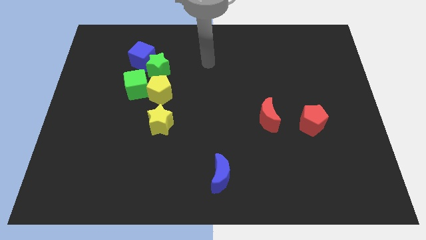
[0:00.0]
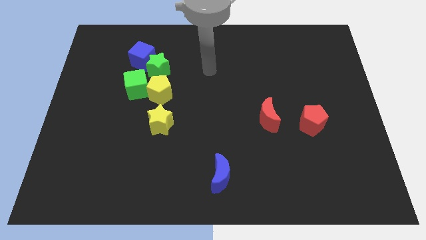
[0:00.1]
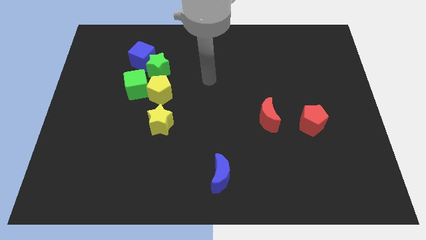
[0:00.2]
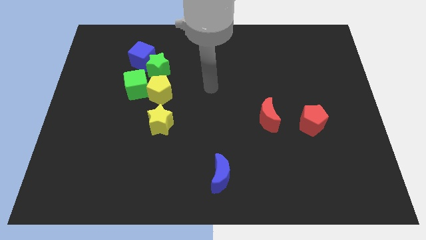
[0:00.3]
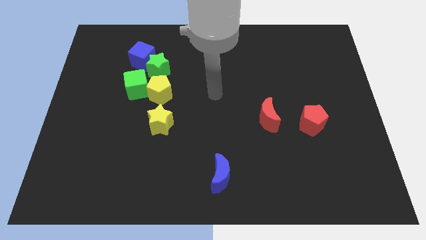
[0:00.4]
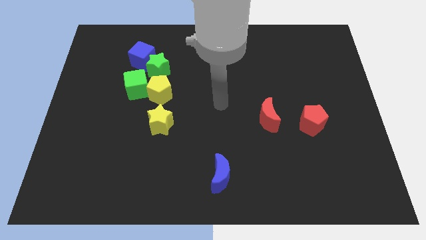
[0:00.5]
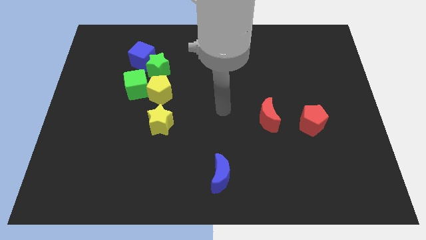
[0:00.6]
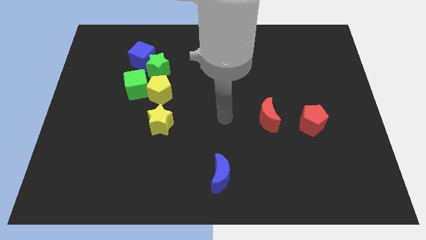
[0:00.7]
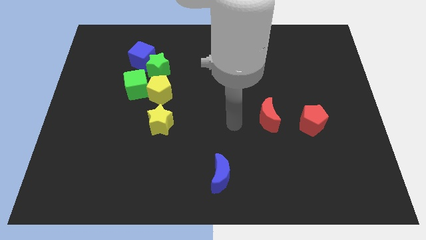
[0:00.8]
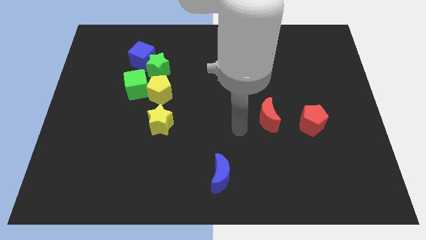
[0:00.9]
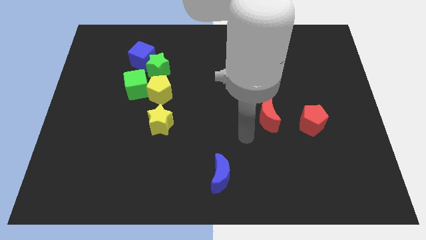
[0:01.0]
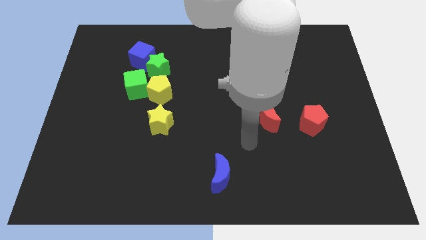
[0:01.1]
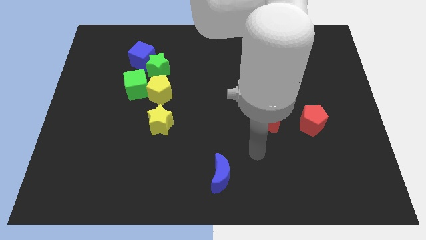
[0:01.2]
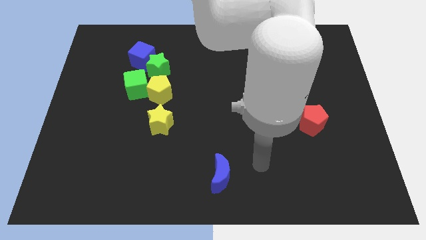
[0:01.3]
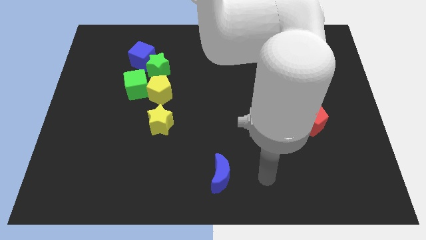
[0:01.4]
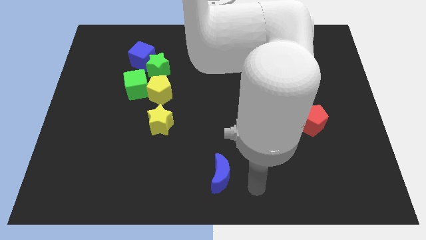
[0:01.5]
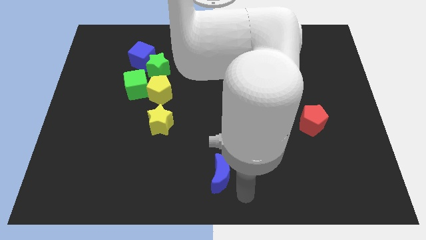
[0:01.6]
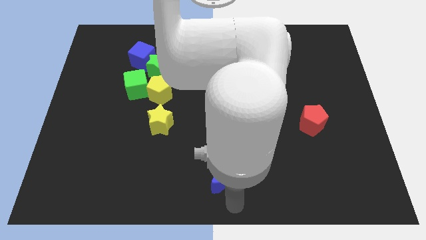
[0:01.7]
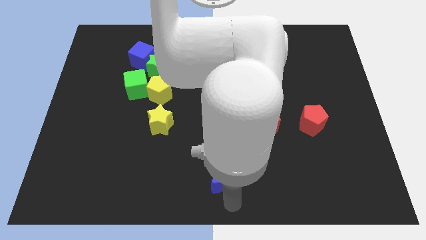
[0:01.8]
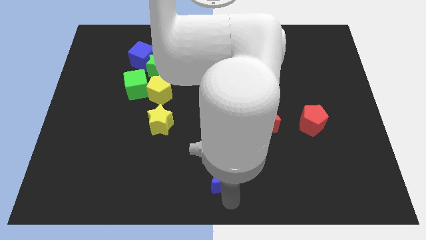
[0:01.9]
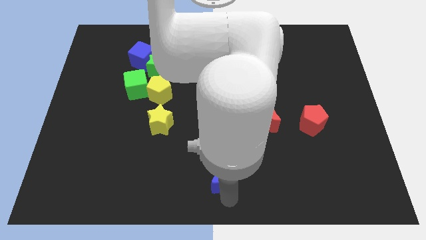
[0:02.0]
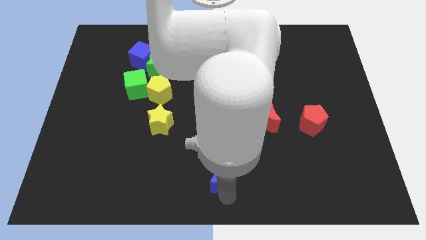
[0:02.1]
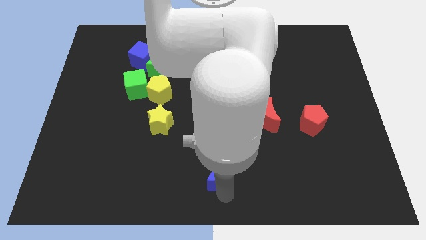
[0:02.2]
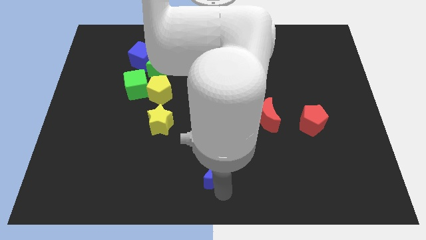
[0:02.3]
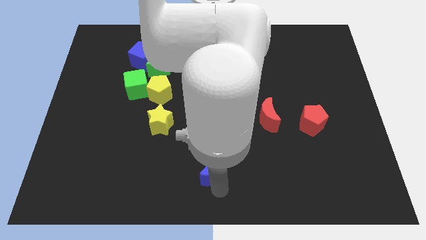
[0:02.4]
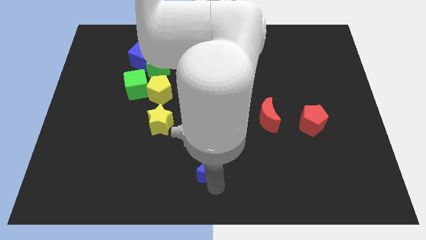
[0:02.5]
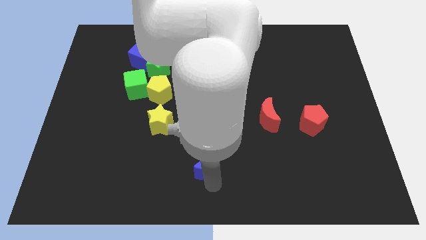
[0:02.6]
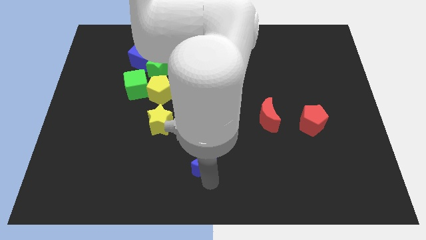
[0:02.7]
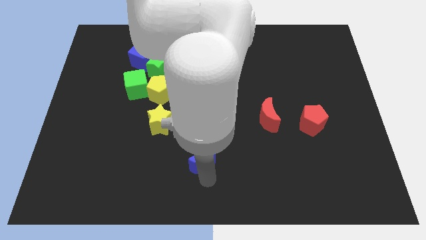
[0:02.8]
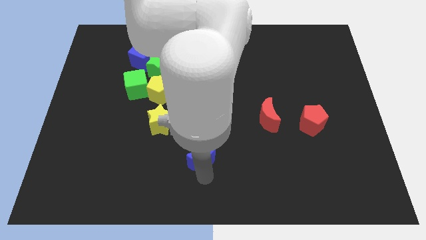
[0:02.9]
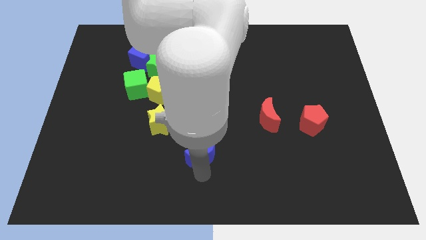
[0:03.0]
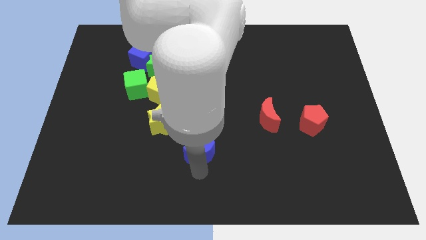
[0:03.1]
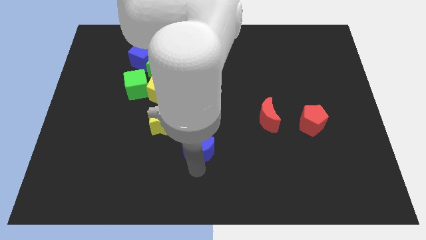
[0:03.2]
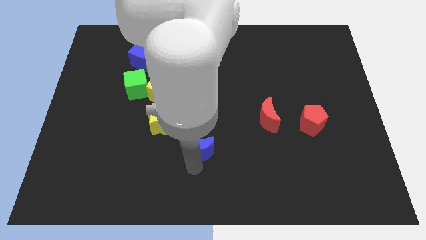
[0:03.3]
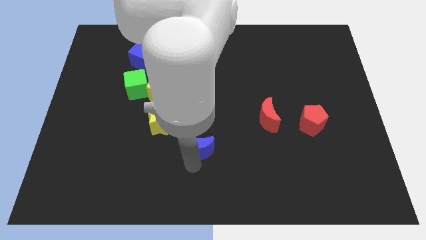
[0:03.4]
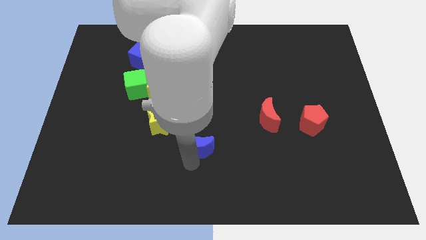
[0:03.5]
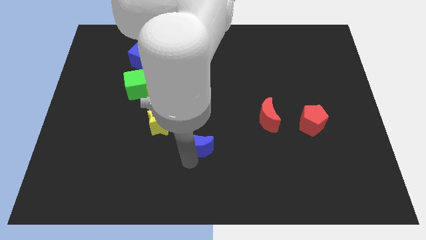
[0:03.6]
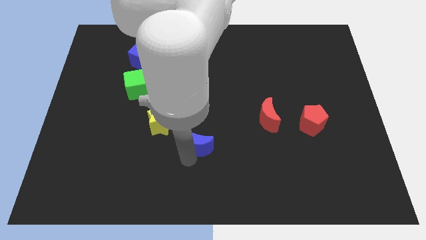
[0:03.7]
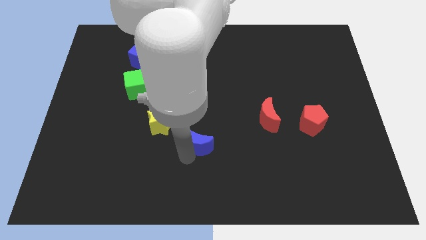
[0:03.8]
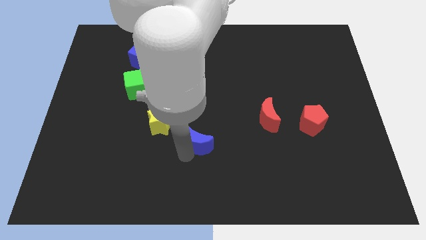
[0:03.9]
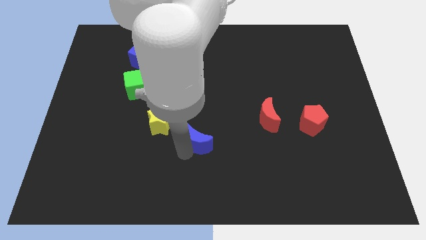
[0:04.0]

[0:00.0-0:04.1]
slide the blue moon a little up

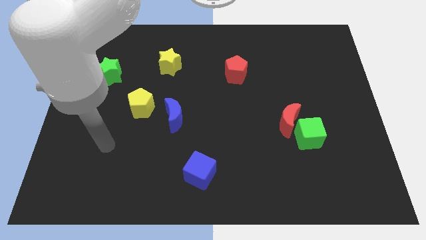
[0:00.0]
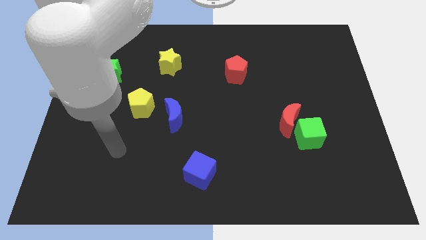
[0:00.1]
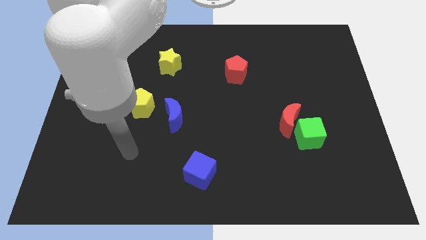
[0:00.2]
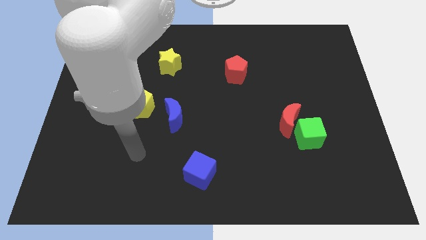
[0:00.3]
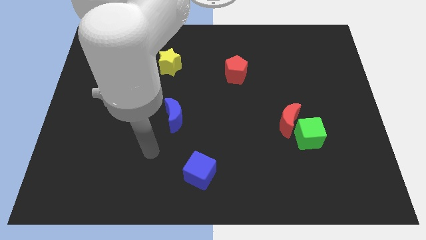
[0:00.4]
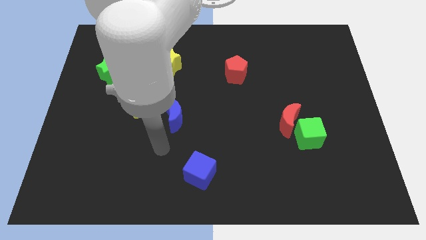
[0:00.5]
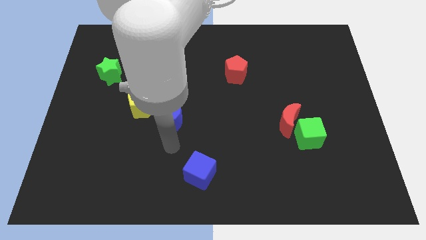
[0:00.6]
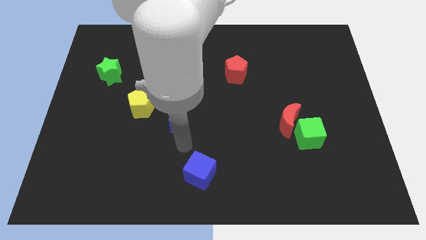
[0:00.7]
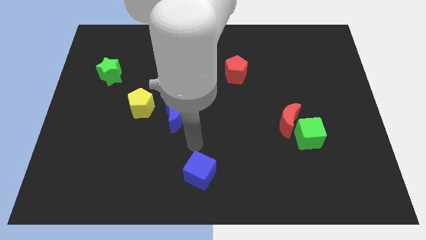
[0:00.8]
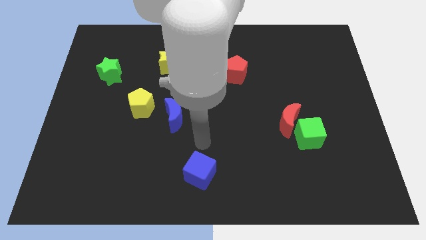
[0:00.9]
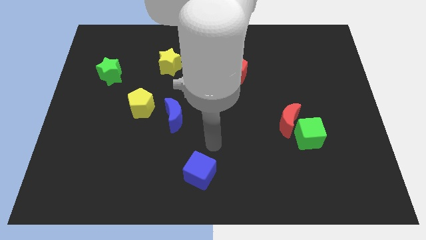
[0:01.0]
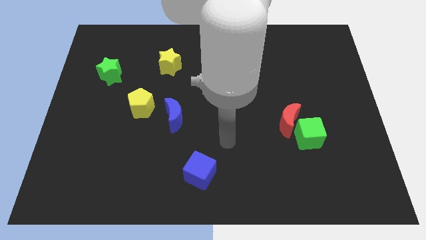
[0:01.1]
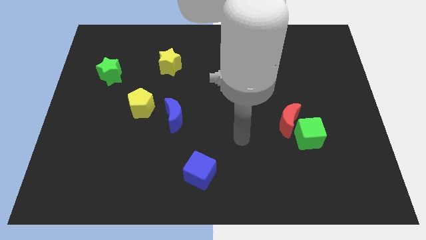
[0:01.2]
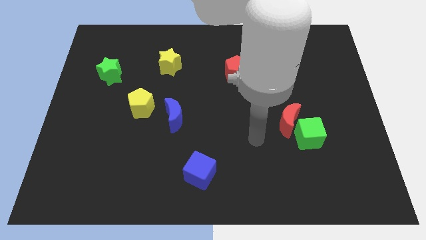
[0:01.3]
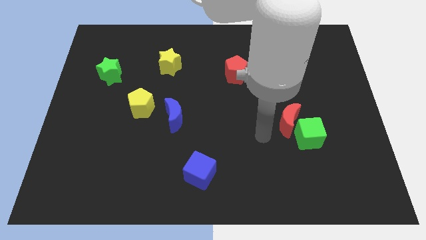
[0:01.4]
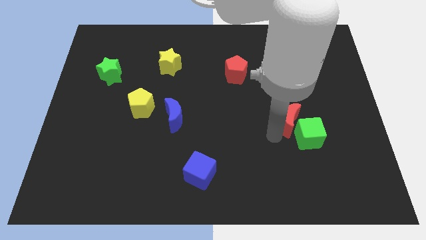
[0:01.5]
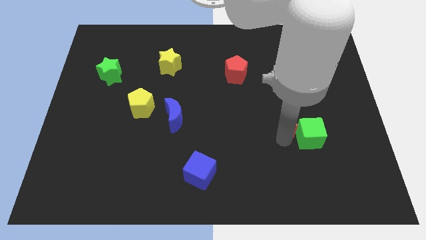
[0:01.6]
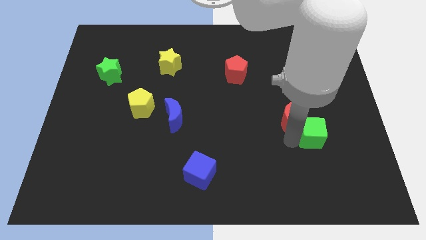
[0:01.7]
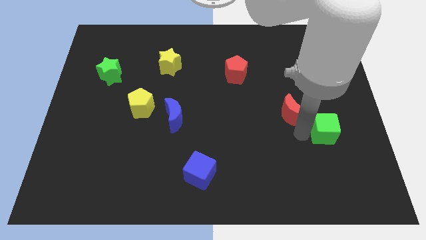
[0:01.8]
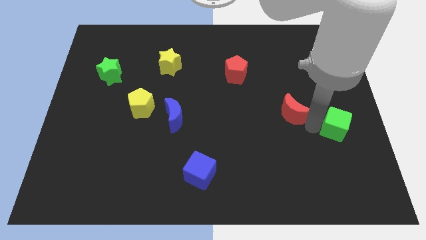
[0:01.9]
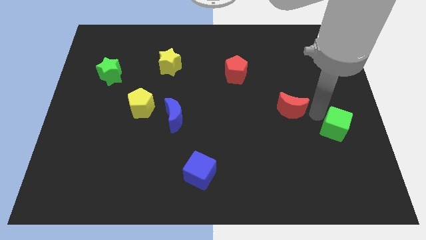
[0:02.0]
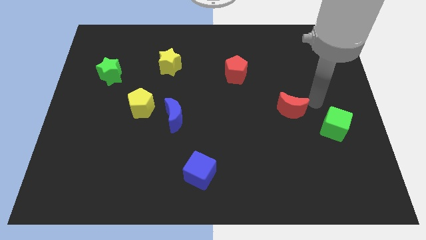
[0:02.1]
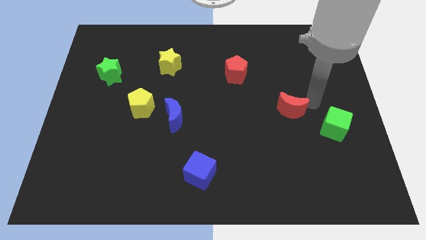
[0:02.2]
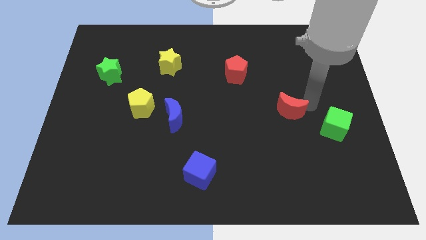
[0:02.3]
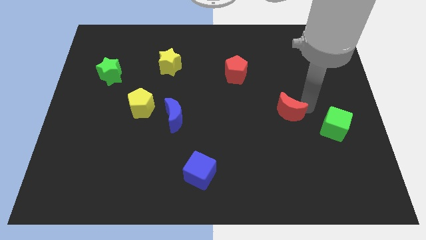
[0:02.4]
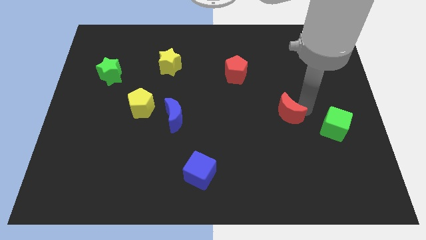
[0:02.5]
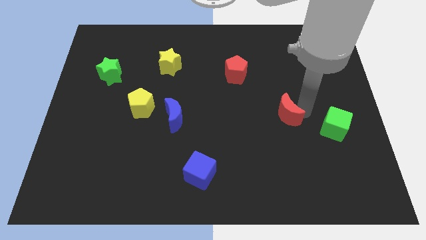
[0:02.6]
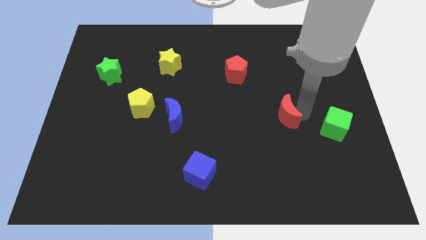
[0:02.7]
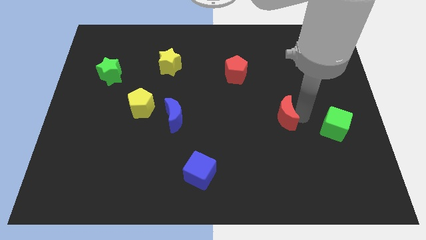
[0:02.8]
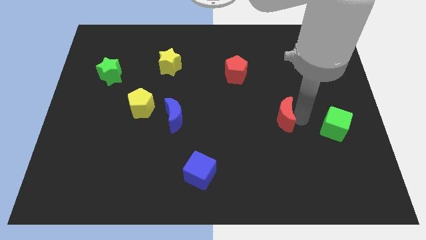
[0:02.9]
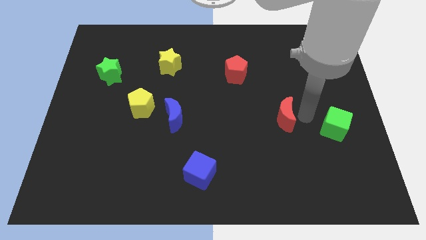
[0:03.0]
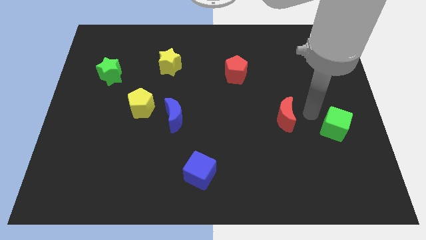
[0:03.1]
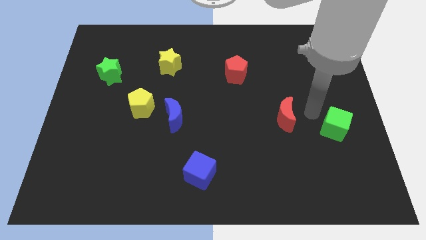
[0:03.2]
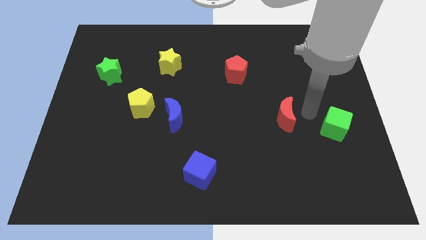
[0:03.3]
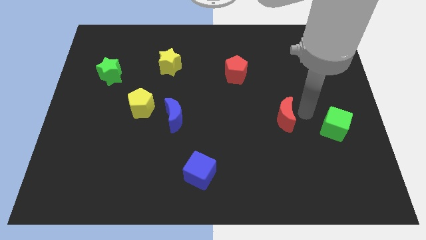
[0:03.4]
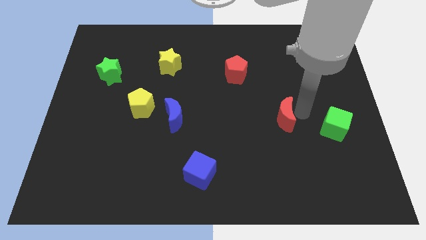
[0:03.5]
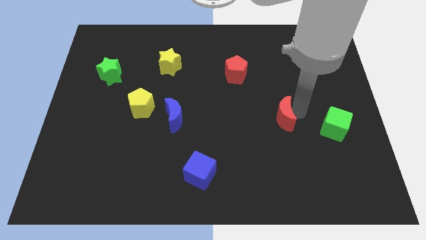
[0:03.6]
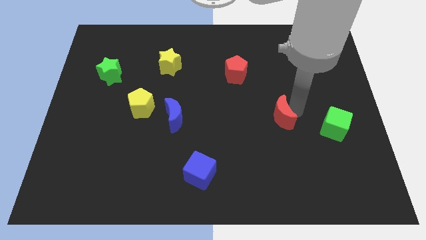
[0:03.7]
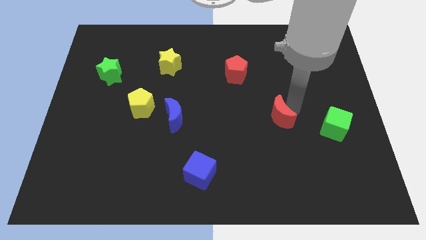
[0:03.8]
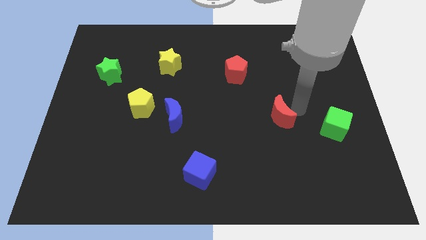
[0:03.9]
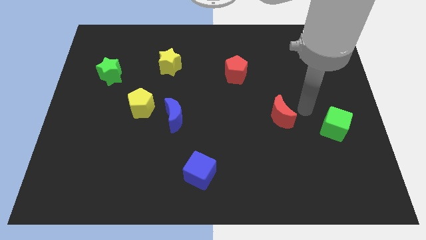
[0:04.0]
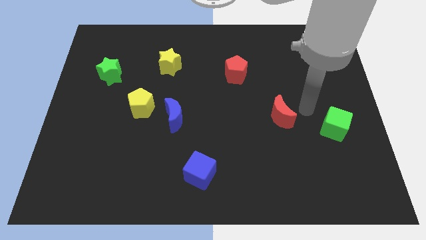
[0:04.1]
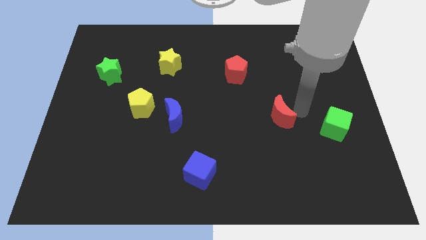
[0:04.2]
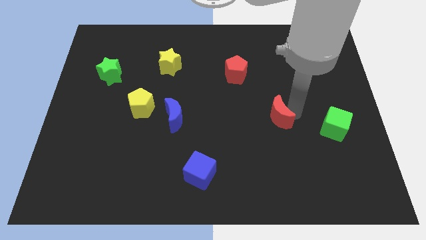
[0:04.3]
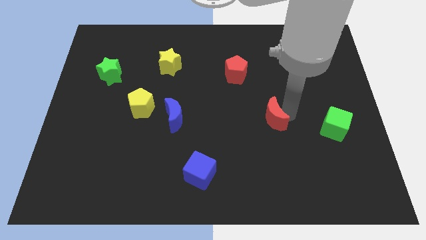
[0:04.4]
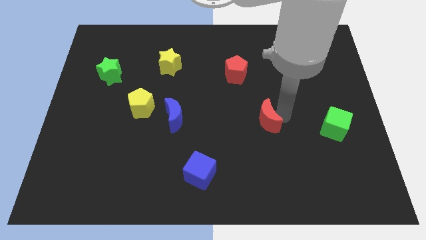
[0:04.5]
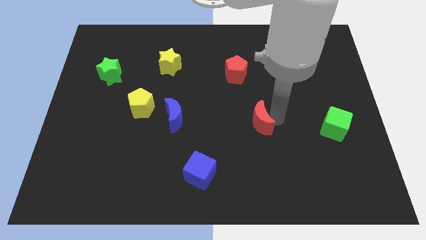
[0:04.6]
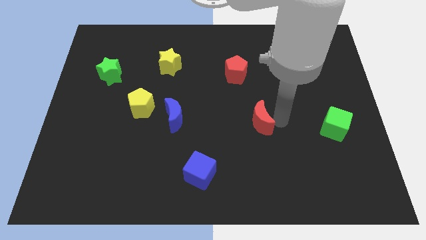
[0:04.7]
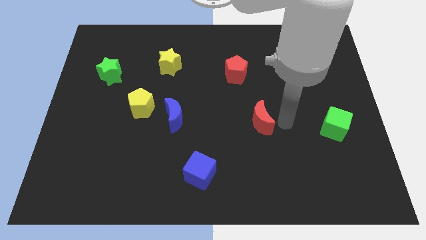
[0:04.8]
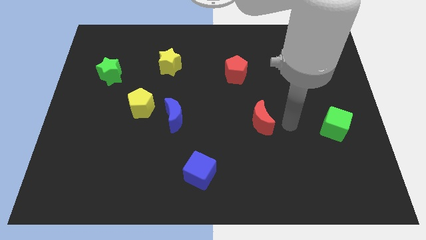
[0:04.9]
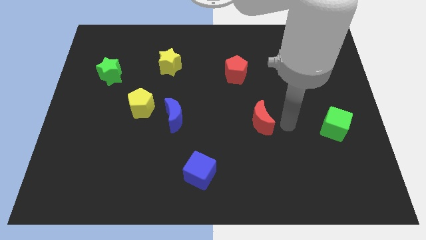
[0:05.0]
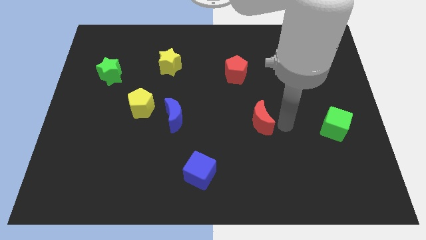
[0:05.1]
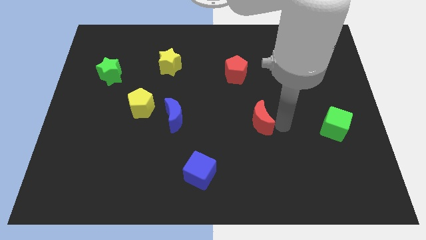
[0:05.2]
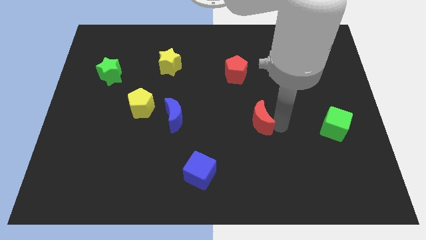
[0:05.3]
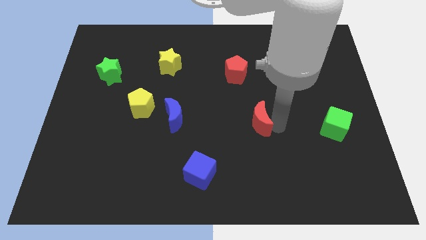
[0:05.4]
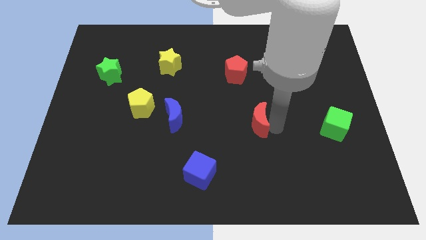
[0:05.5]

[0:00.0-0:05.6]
slide the red moon slightly left
